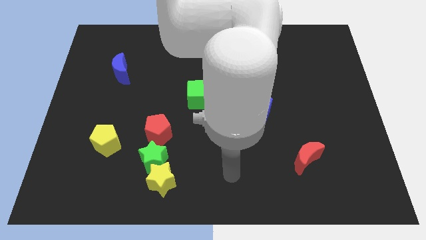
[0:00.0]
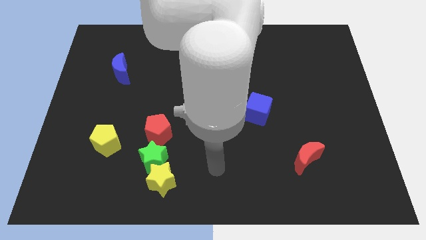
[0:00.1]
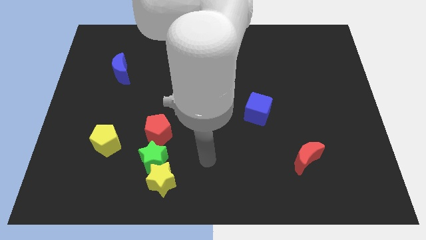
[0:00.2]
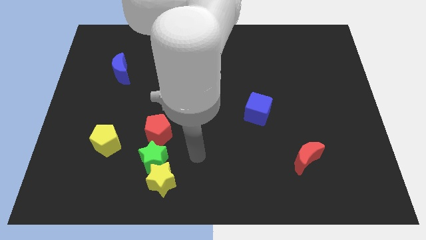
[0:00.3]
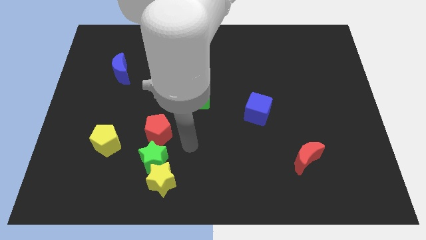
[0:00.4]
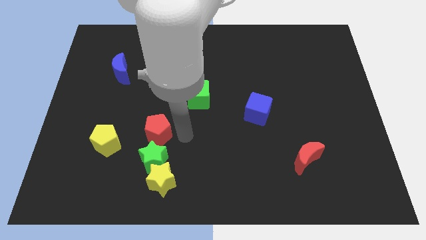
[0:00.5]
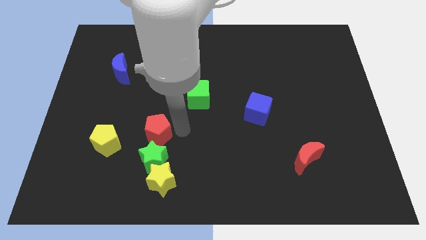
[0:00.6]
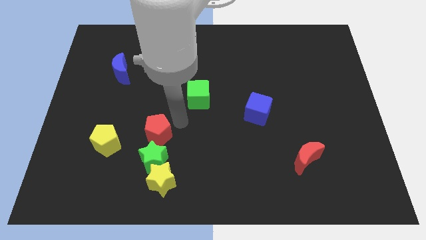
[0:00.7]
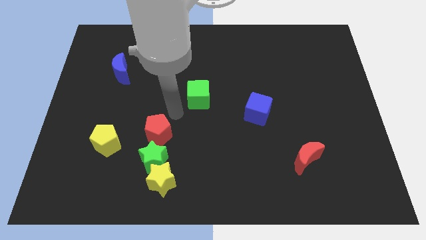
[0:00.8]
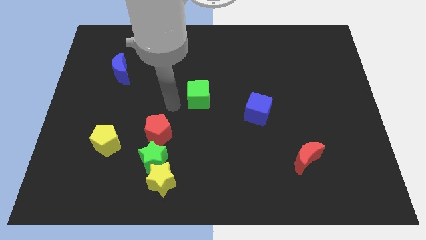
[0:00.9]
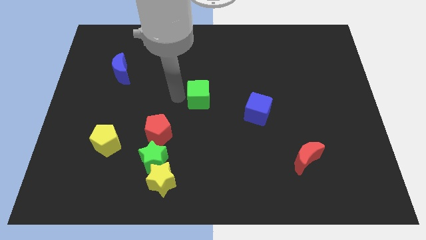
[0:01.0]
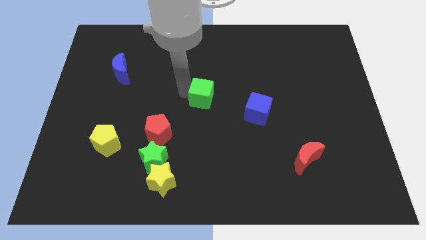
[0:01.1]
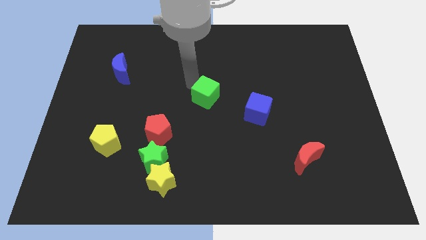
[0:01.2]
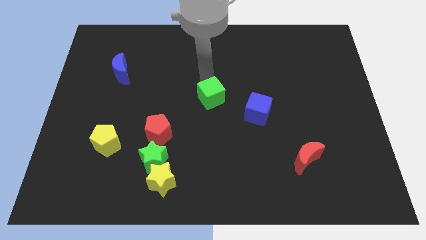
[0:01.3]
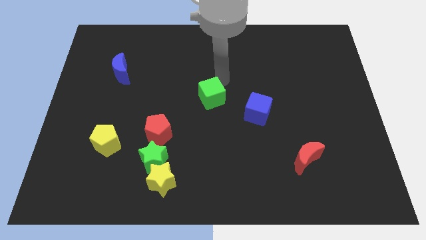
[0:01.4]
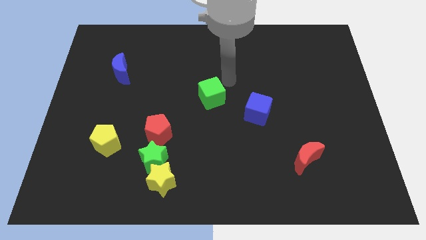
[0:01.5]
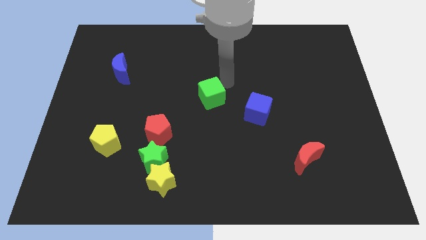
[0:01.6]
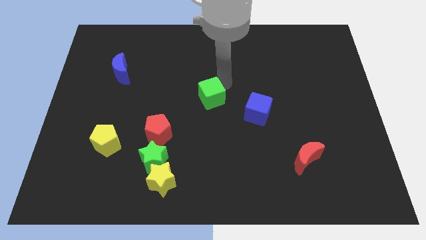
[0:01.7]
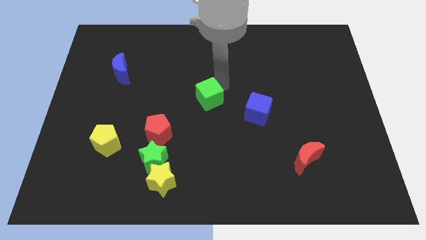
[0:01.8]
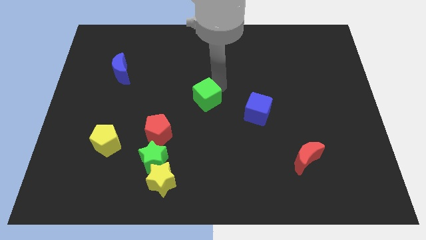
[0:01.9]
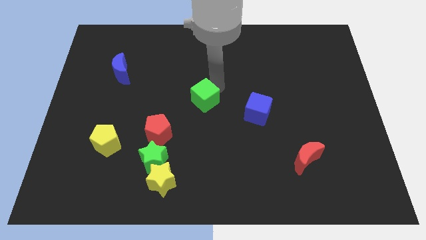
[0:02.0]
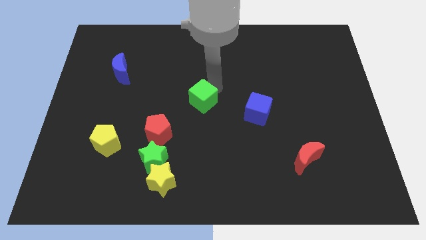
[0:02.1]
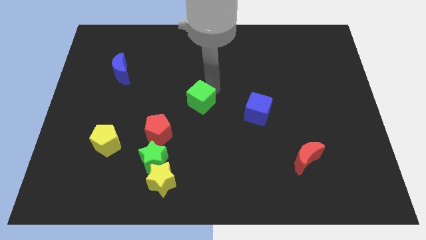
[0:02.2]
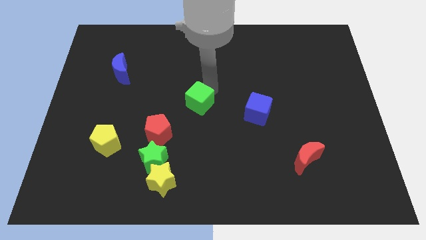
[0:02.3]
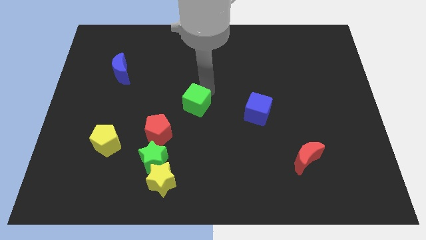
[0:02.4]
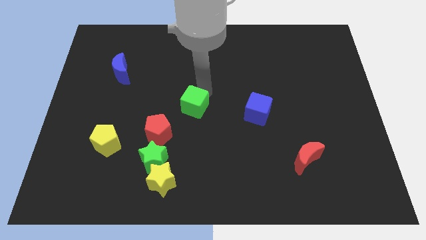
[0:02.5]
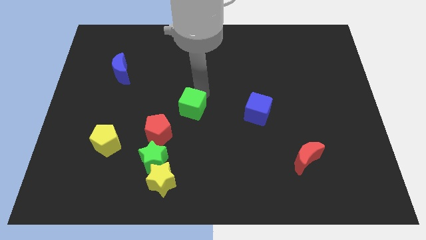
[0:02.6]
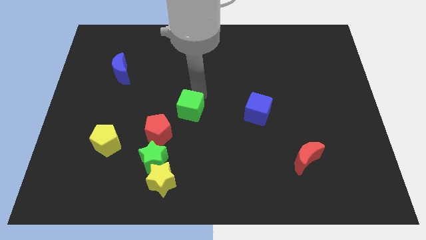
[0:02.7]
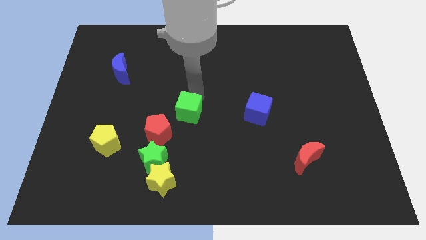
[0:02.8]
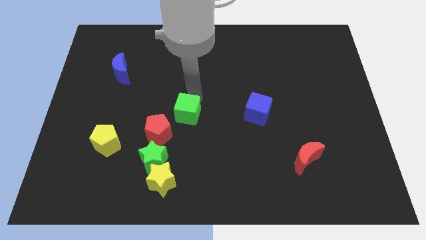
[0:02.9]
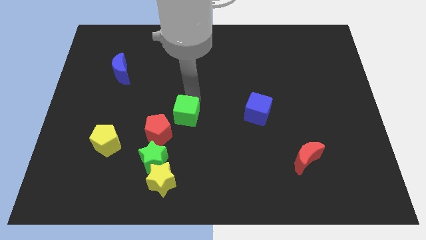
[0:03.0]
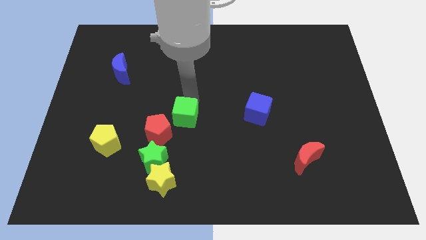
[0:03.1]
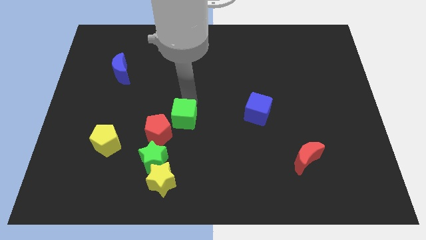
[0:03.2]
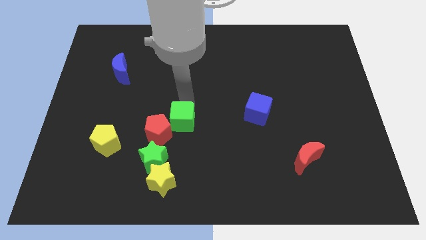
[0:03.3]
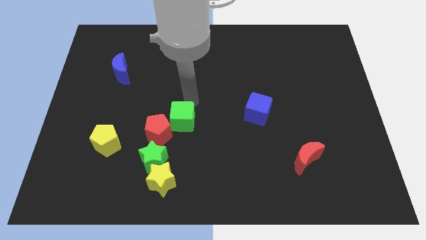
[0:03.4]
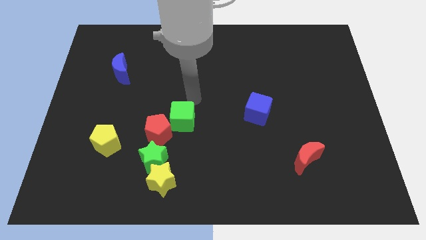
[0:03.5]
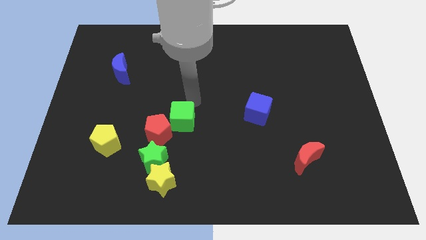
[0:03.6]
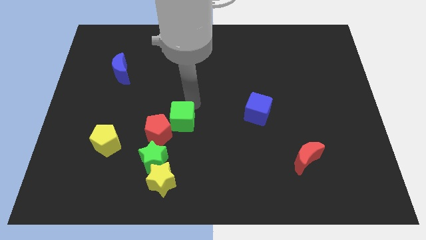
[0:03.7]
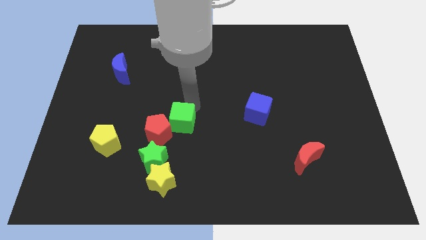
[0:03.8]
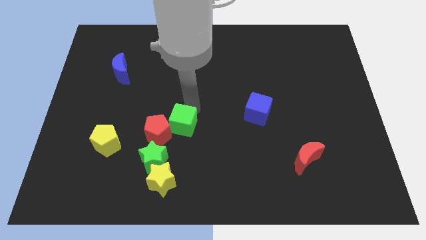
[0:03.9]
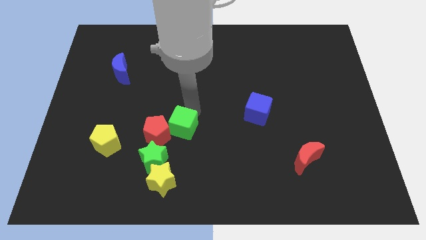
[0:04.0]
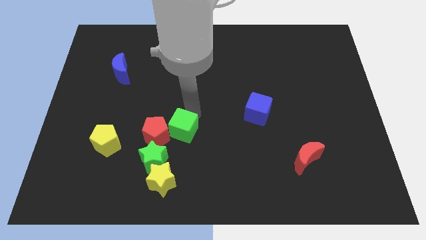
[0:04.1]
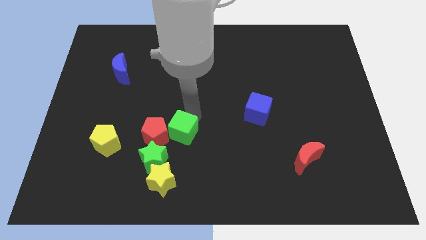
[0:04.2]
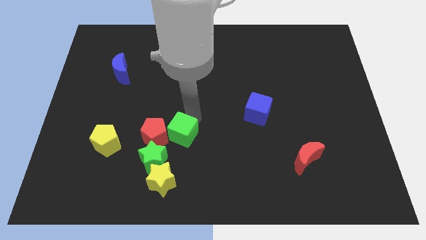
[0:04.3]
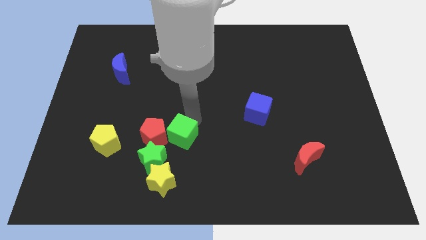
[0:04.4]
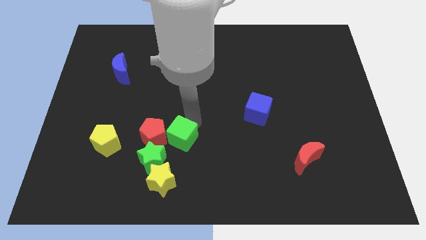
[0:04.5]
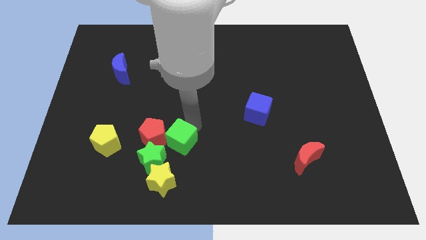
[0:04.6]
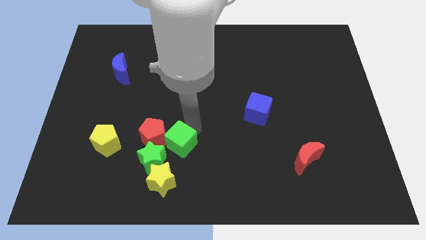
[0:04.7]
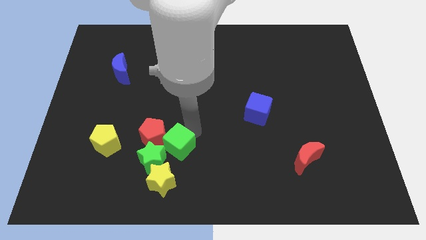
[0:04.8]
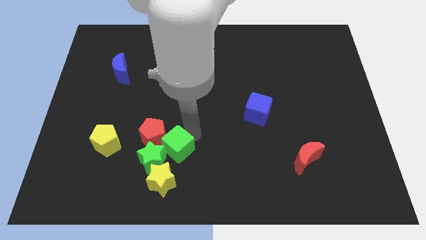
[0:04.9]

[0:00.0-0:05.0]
put the green cube to the green star

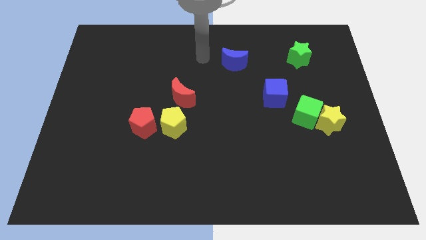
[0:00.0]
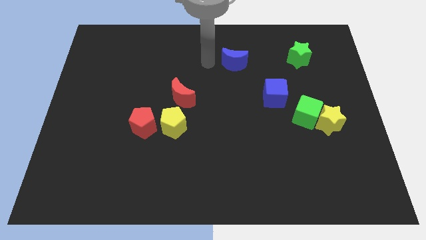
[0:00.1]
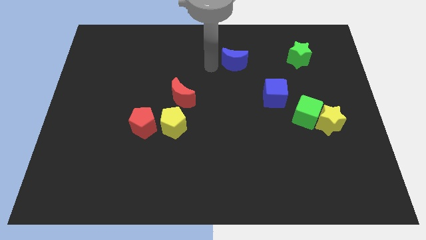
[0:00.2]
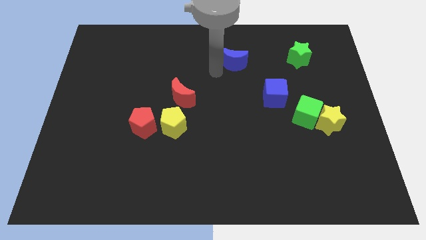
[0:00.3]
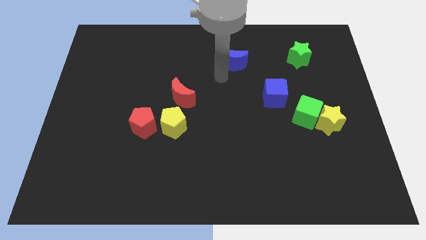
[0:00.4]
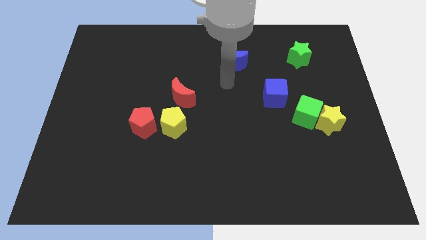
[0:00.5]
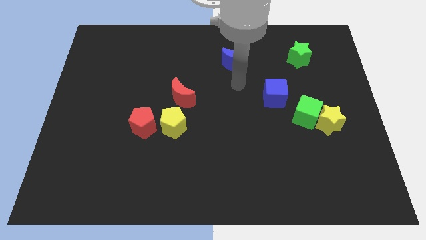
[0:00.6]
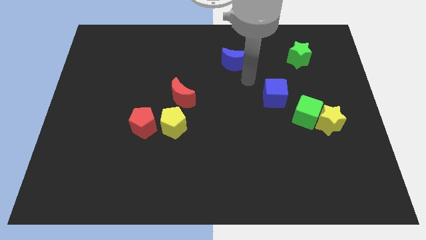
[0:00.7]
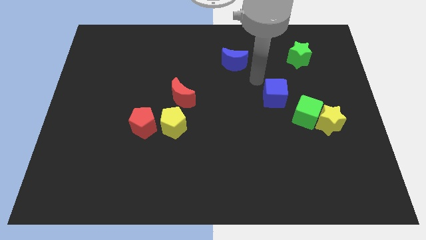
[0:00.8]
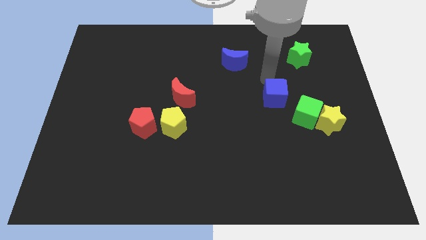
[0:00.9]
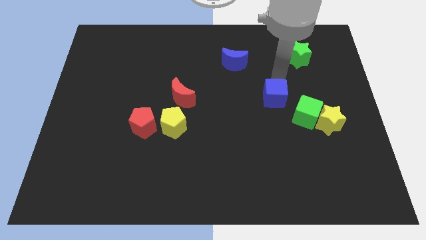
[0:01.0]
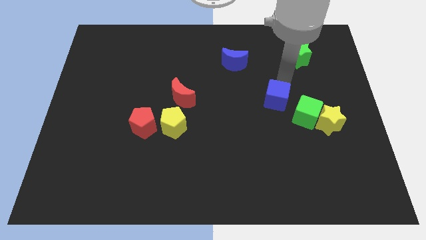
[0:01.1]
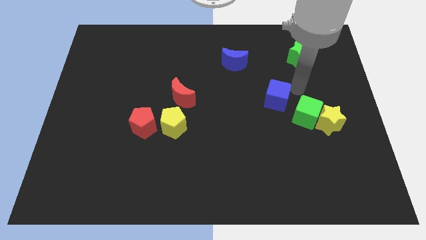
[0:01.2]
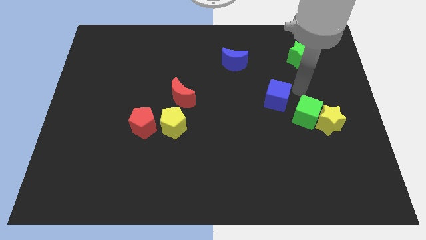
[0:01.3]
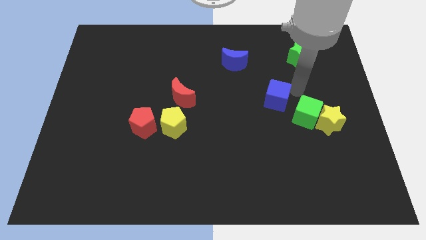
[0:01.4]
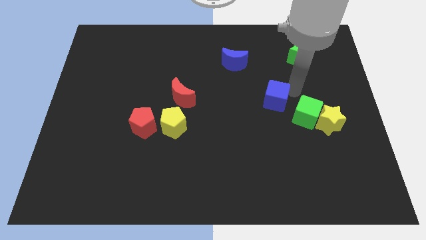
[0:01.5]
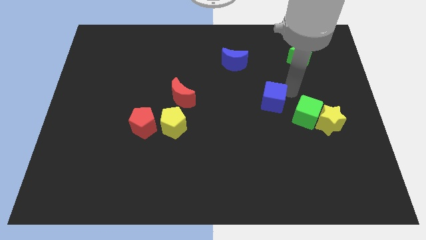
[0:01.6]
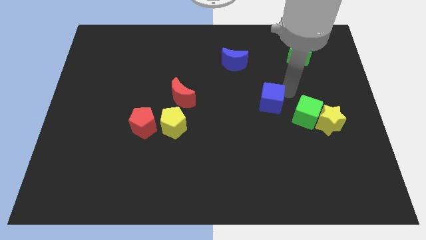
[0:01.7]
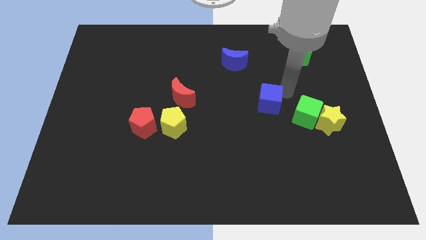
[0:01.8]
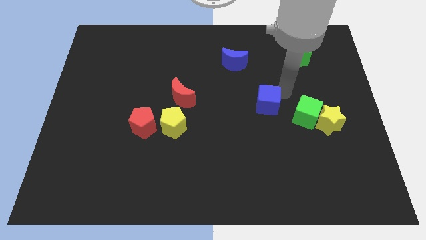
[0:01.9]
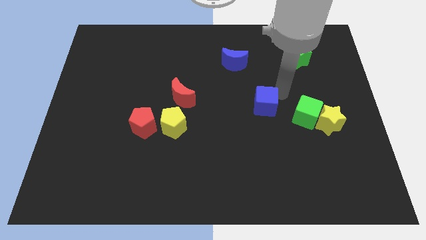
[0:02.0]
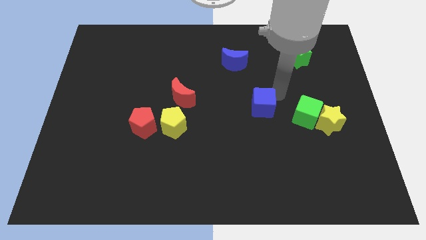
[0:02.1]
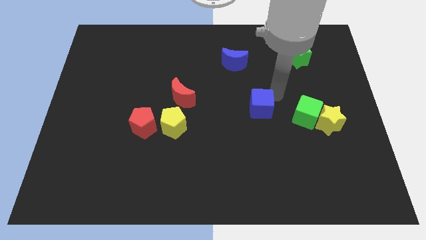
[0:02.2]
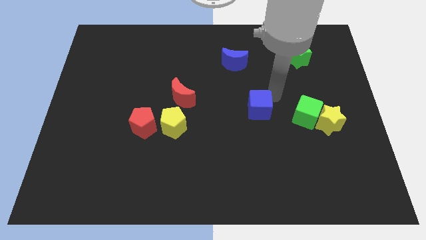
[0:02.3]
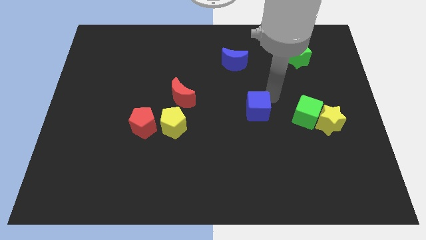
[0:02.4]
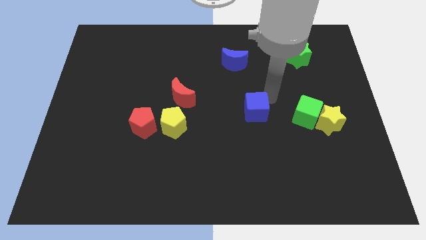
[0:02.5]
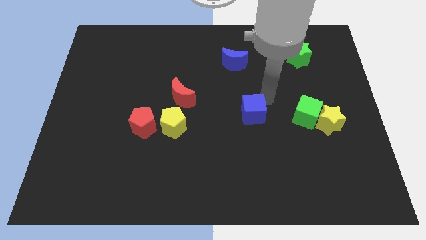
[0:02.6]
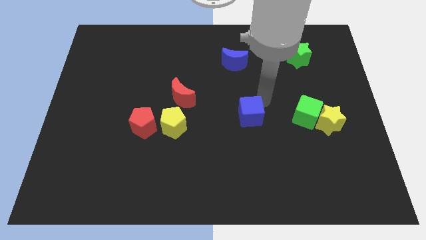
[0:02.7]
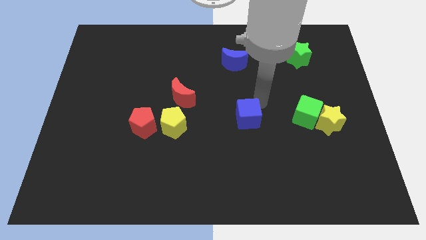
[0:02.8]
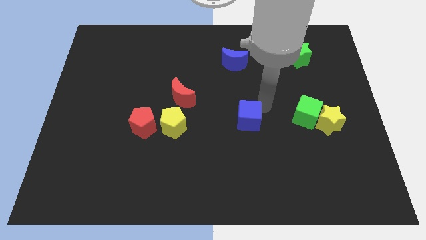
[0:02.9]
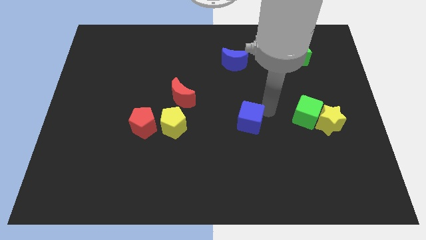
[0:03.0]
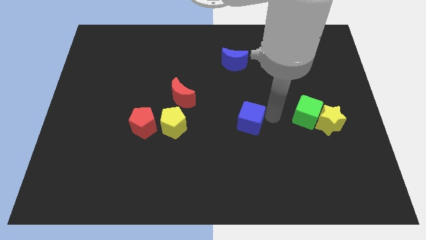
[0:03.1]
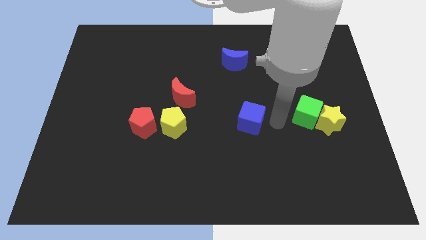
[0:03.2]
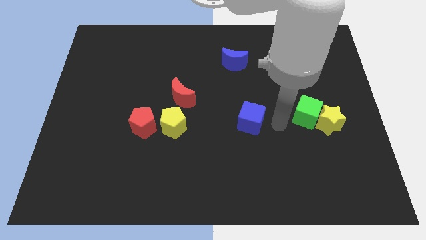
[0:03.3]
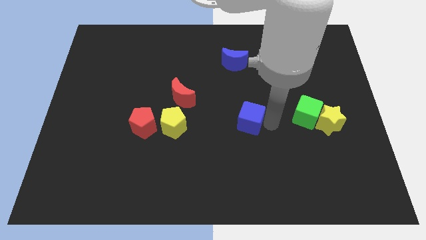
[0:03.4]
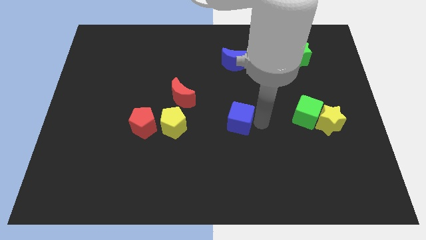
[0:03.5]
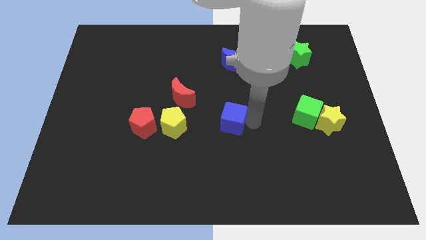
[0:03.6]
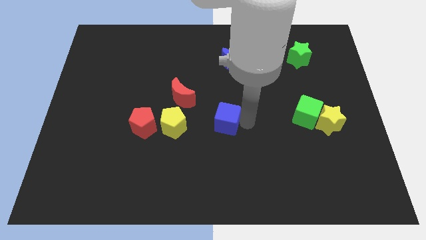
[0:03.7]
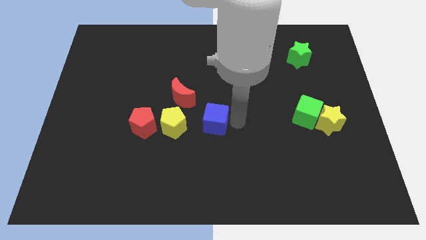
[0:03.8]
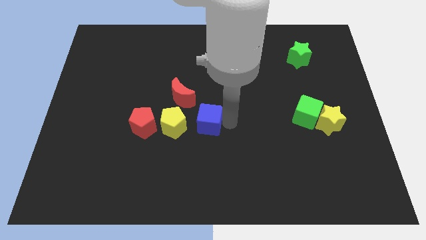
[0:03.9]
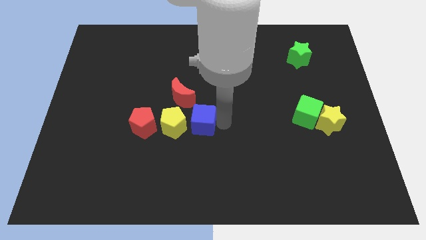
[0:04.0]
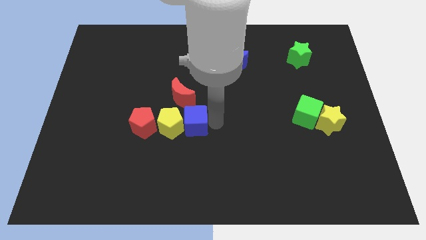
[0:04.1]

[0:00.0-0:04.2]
move the blue cube to the yellow pentagon
